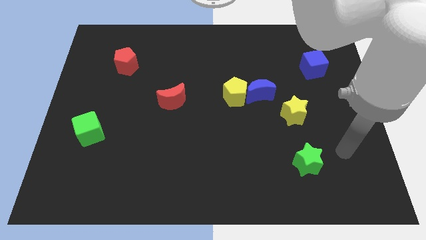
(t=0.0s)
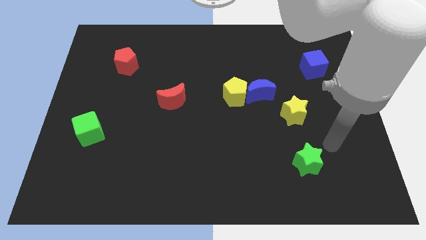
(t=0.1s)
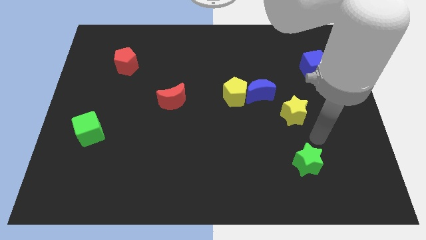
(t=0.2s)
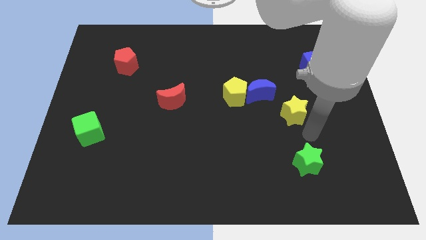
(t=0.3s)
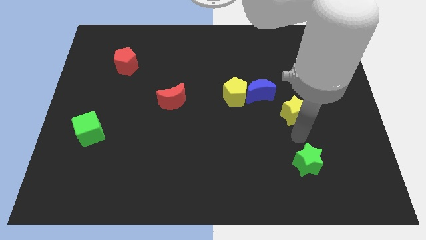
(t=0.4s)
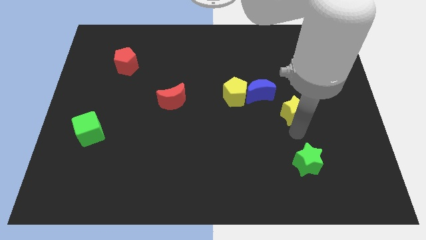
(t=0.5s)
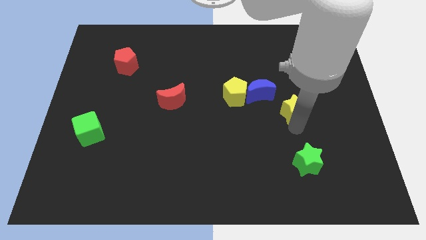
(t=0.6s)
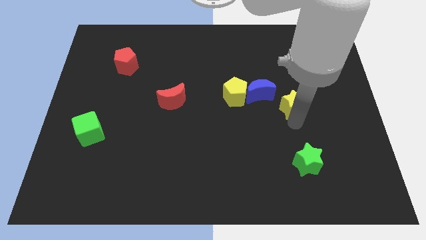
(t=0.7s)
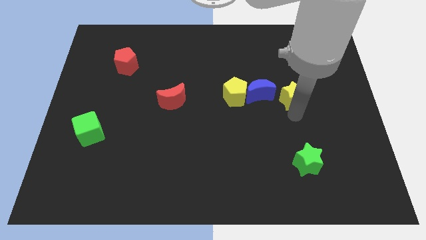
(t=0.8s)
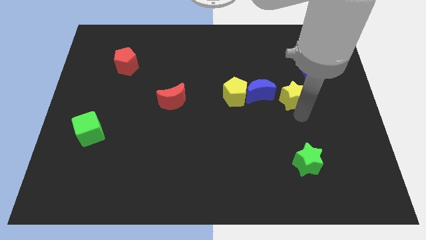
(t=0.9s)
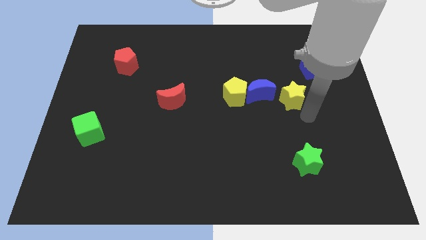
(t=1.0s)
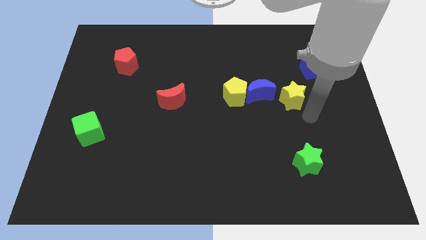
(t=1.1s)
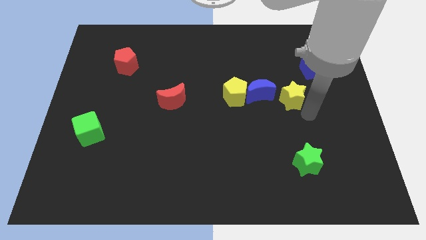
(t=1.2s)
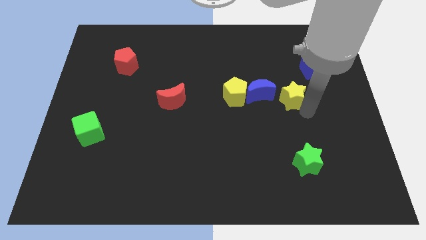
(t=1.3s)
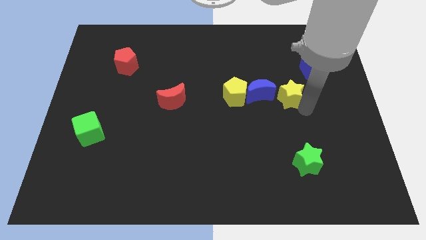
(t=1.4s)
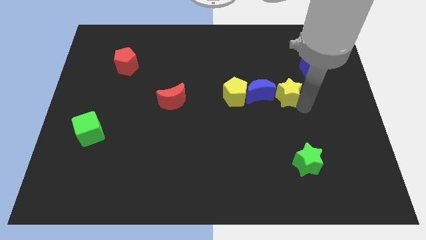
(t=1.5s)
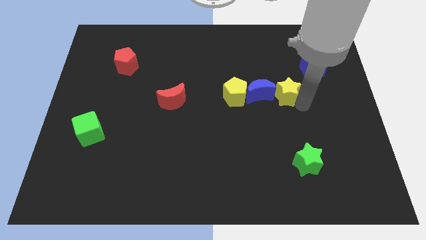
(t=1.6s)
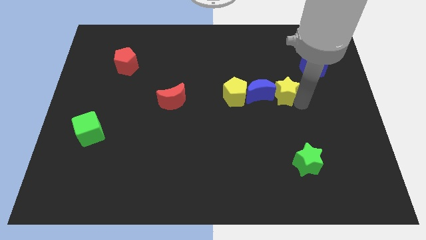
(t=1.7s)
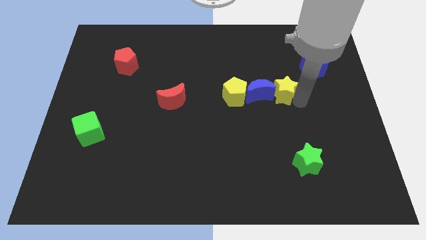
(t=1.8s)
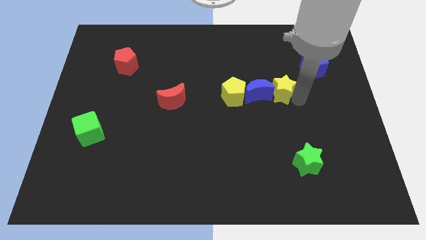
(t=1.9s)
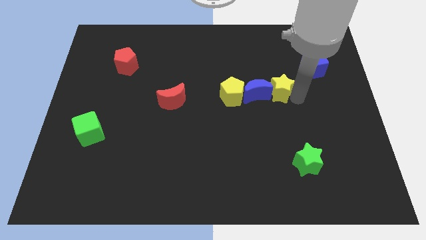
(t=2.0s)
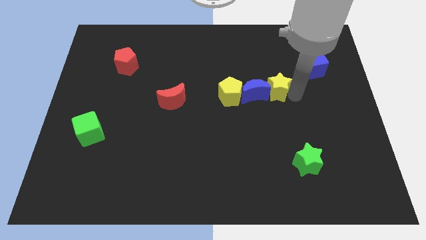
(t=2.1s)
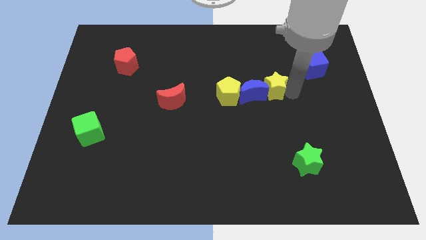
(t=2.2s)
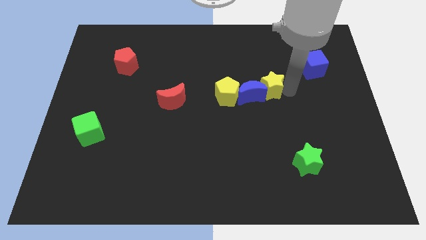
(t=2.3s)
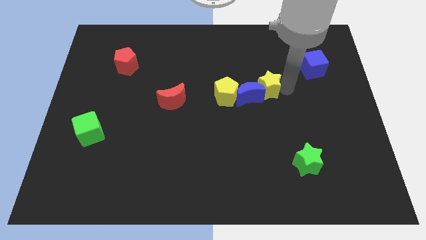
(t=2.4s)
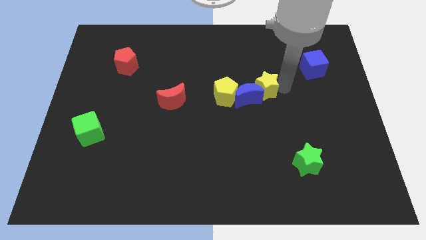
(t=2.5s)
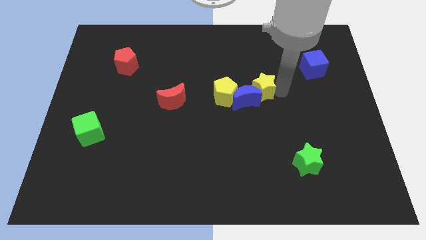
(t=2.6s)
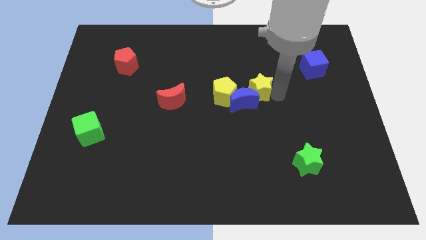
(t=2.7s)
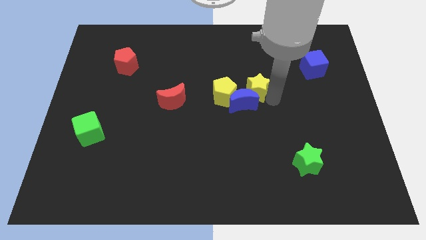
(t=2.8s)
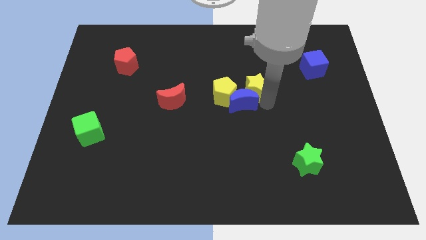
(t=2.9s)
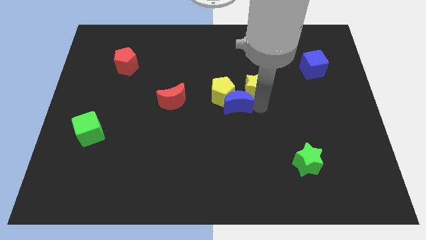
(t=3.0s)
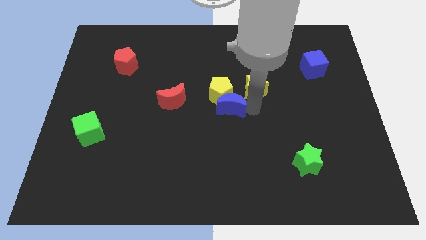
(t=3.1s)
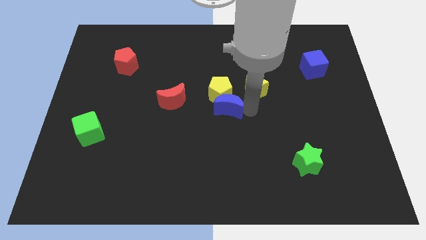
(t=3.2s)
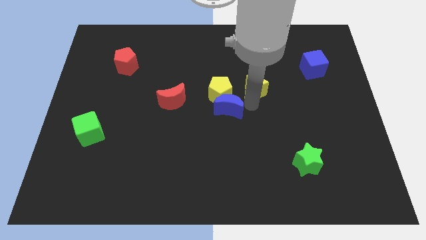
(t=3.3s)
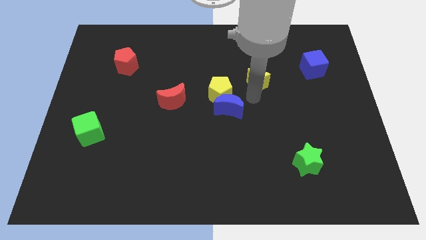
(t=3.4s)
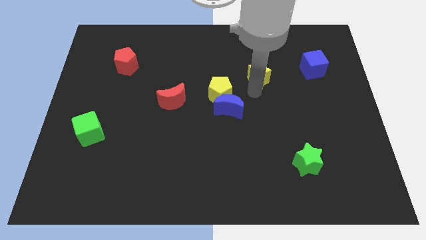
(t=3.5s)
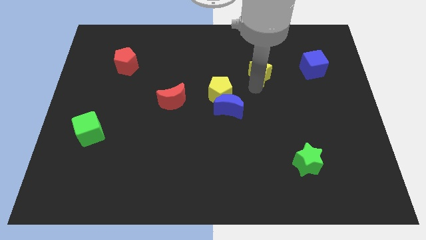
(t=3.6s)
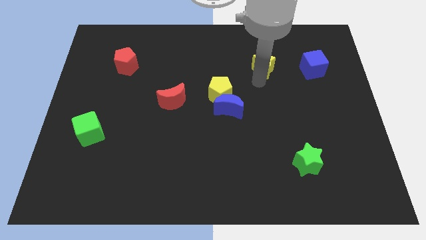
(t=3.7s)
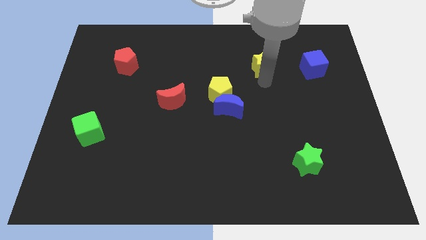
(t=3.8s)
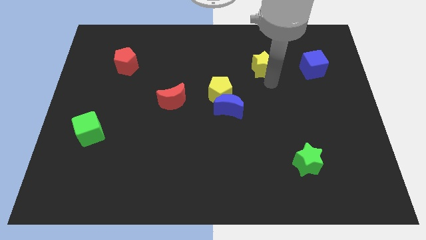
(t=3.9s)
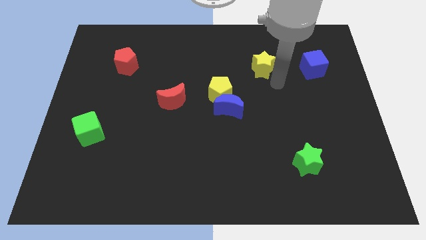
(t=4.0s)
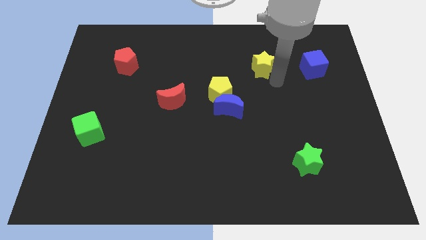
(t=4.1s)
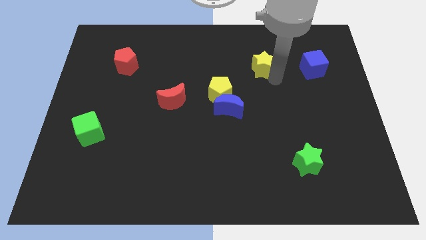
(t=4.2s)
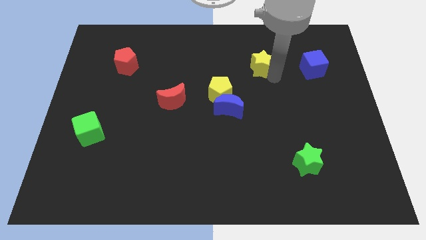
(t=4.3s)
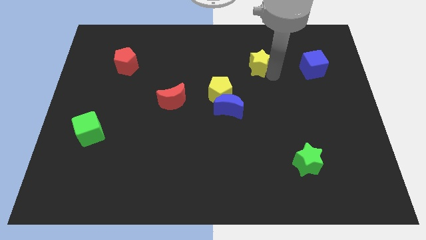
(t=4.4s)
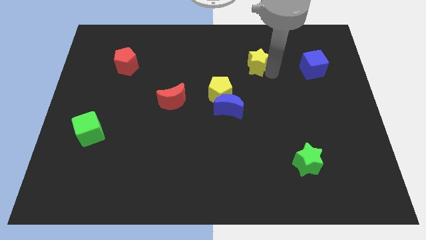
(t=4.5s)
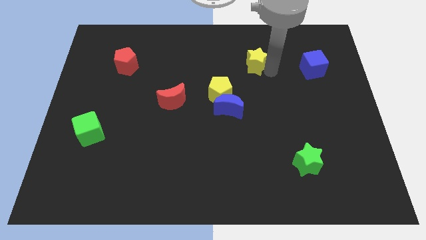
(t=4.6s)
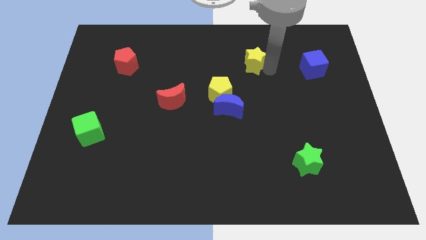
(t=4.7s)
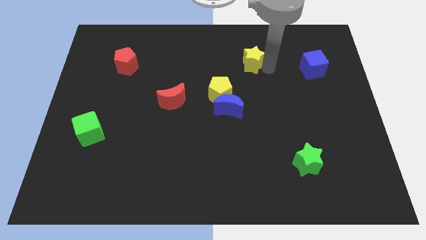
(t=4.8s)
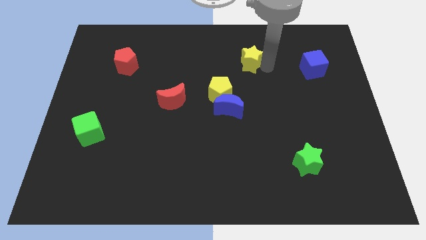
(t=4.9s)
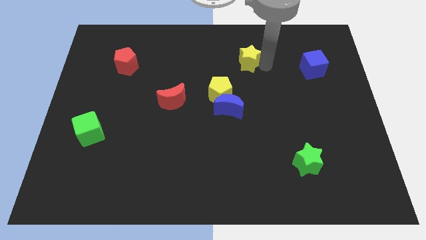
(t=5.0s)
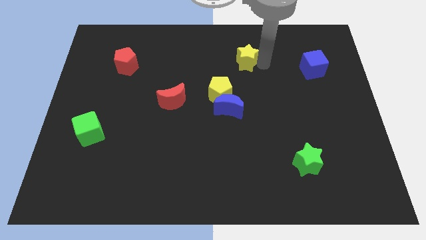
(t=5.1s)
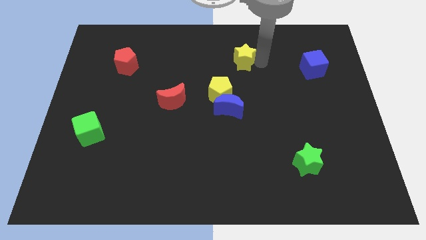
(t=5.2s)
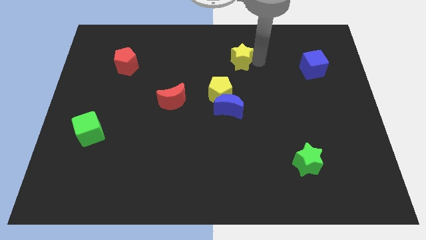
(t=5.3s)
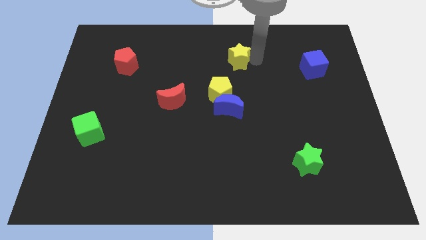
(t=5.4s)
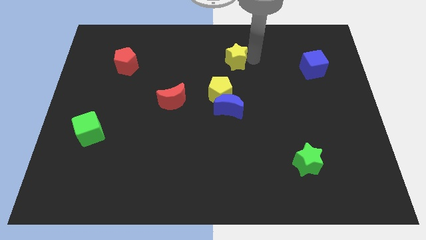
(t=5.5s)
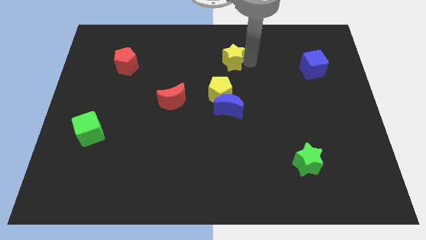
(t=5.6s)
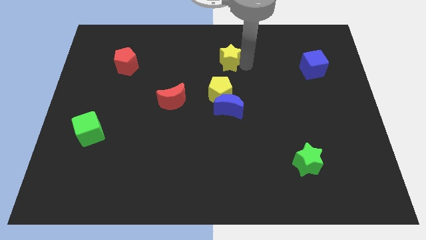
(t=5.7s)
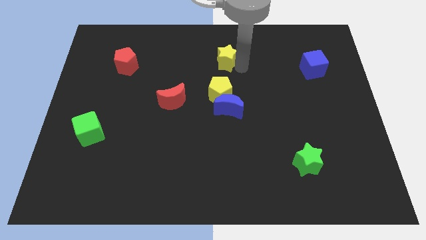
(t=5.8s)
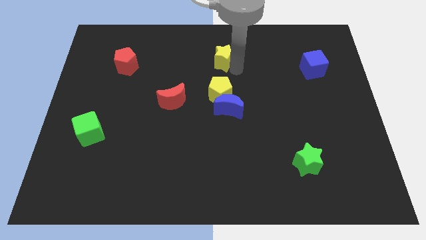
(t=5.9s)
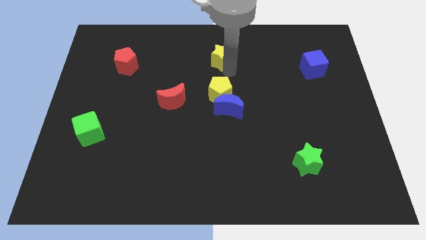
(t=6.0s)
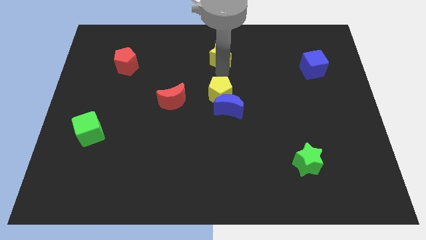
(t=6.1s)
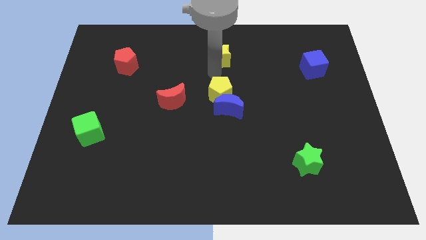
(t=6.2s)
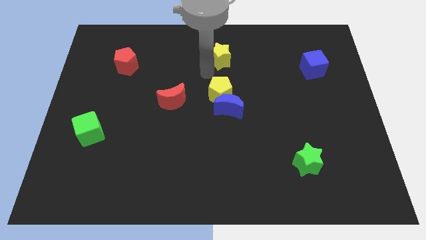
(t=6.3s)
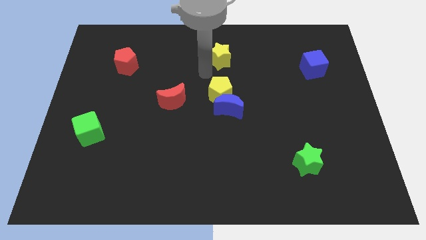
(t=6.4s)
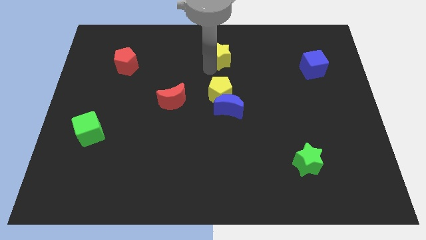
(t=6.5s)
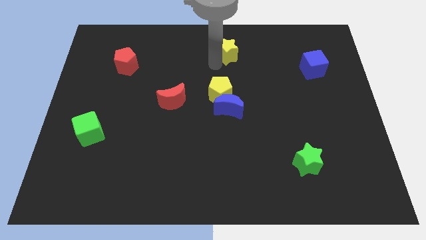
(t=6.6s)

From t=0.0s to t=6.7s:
push the yellow star to the top

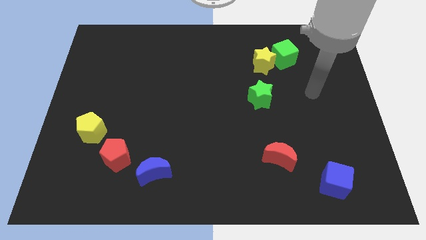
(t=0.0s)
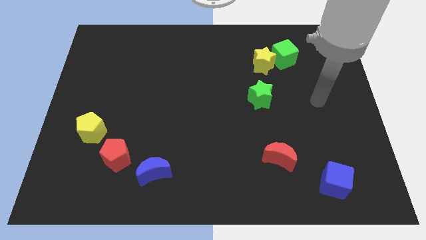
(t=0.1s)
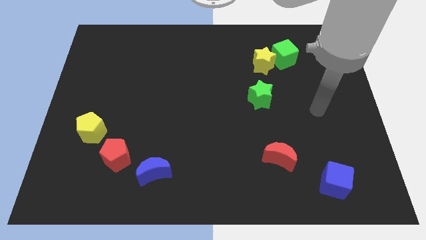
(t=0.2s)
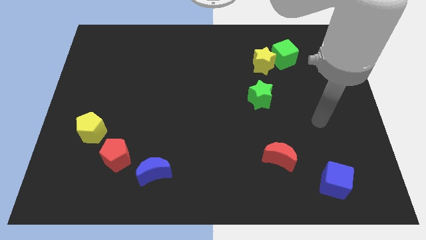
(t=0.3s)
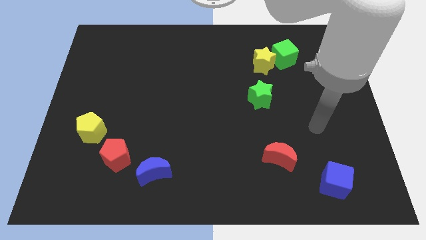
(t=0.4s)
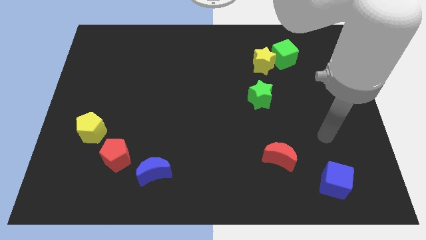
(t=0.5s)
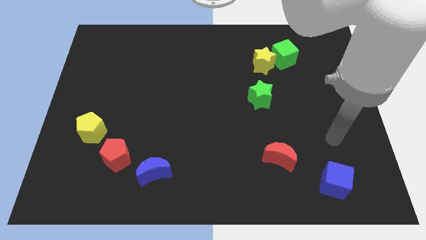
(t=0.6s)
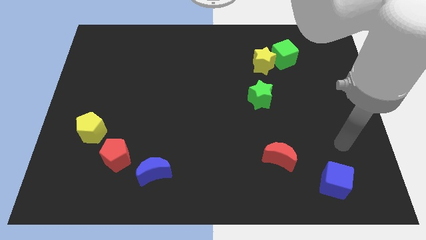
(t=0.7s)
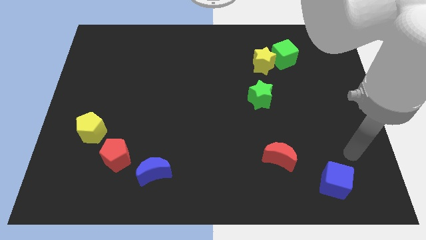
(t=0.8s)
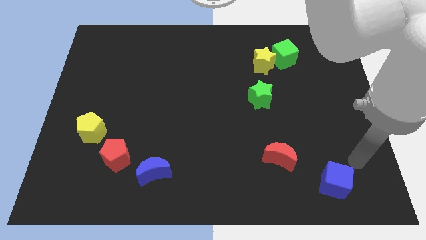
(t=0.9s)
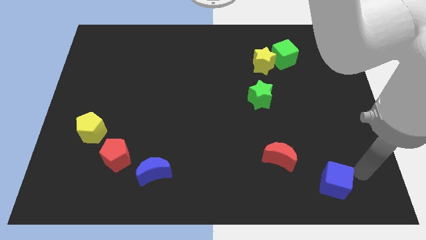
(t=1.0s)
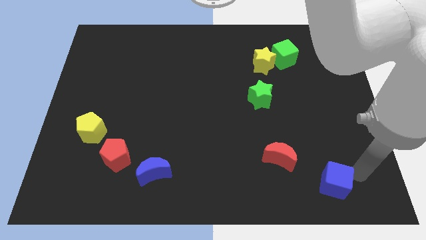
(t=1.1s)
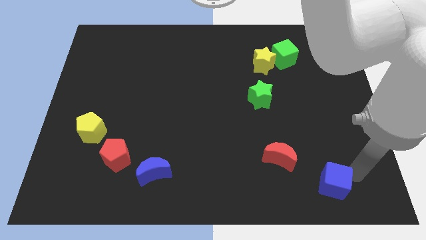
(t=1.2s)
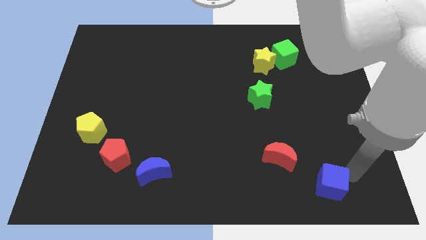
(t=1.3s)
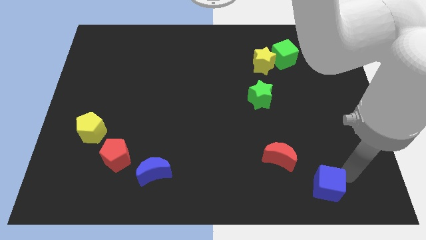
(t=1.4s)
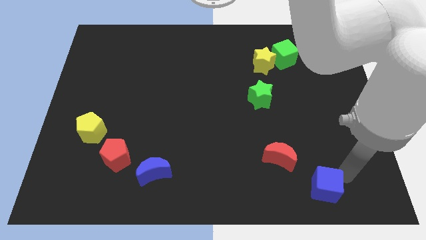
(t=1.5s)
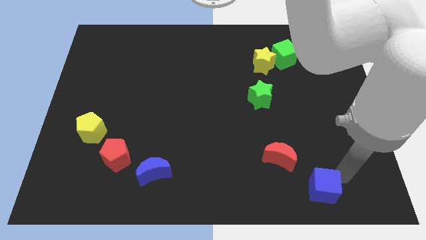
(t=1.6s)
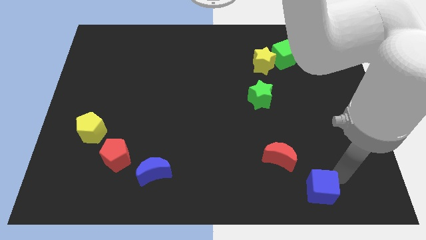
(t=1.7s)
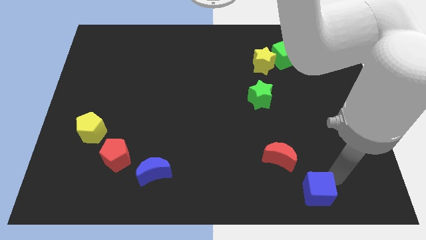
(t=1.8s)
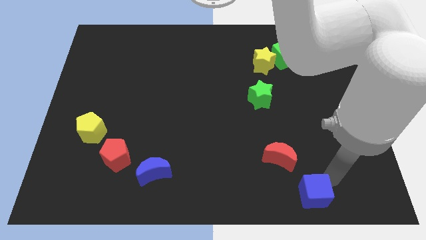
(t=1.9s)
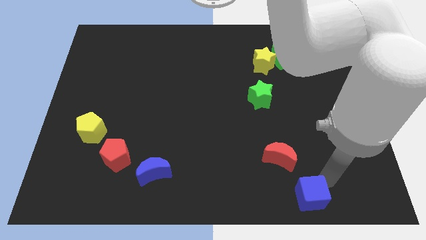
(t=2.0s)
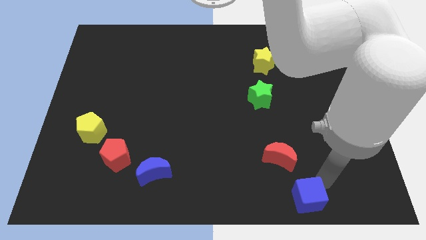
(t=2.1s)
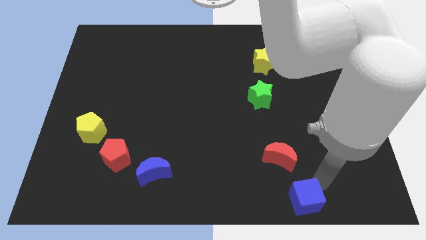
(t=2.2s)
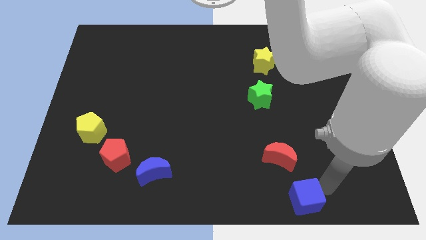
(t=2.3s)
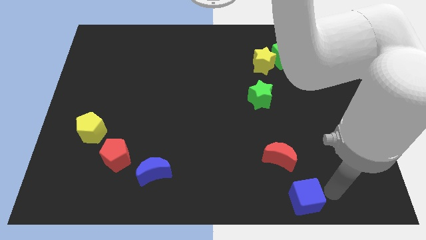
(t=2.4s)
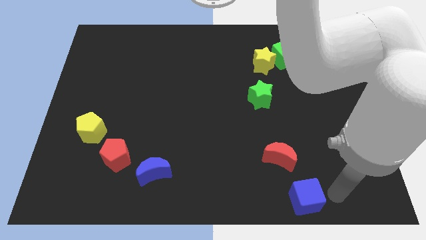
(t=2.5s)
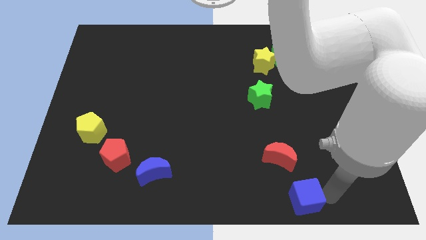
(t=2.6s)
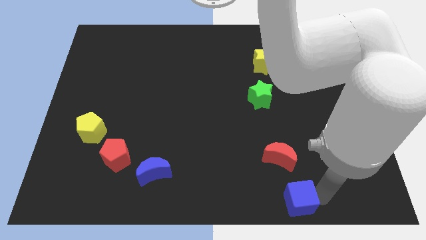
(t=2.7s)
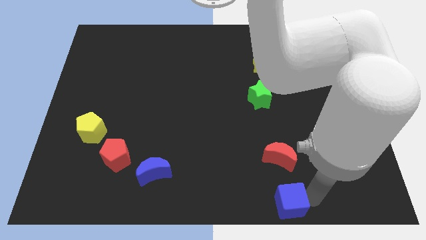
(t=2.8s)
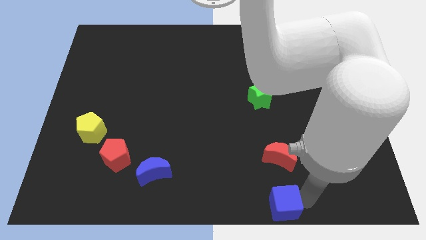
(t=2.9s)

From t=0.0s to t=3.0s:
put the blue cube to the bottom side
